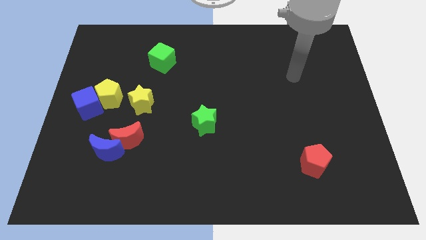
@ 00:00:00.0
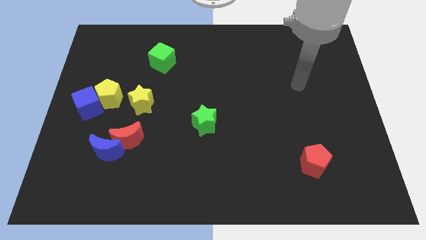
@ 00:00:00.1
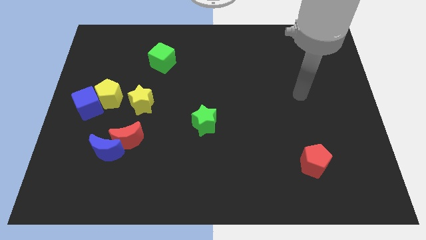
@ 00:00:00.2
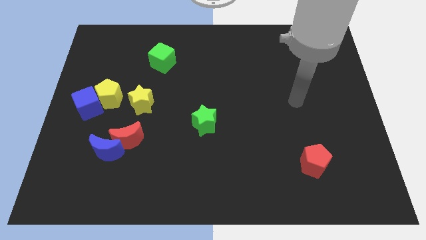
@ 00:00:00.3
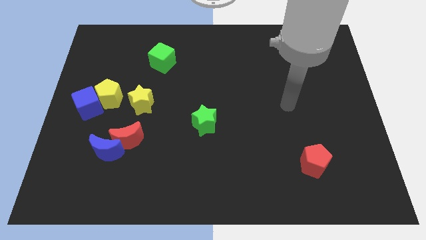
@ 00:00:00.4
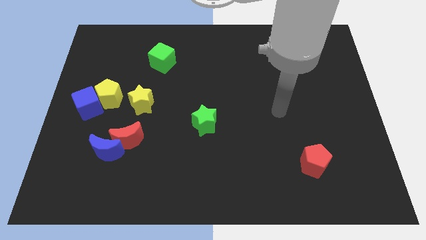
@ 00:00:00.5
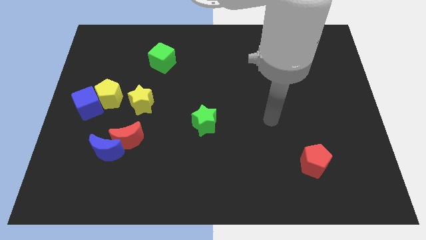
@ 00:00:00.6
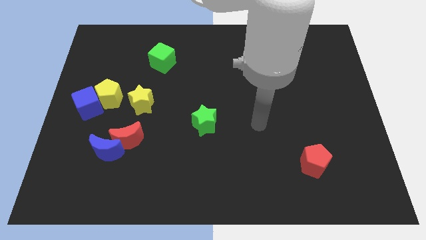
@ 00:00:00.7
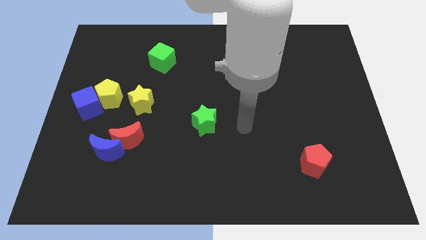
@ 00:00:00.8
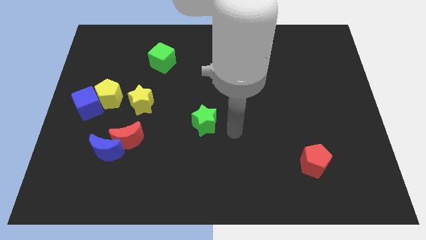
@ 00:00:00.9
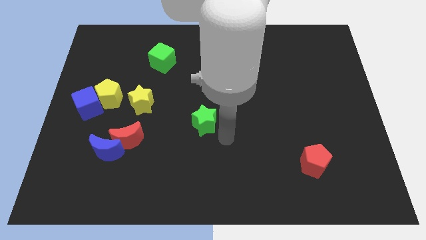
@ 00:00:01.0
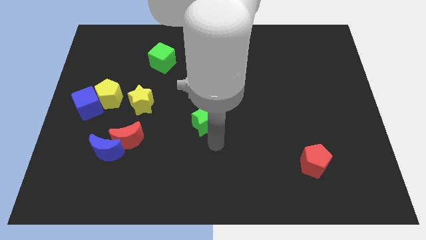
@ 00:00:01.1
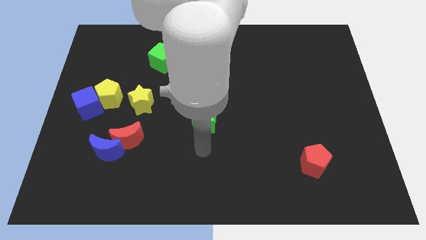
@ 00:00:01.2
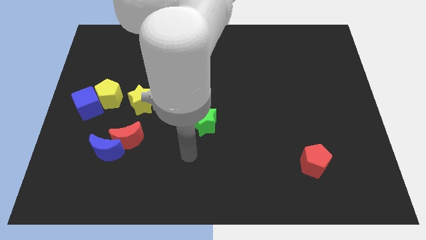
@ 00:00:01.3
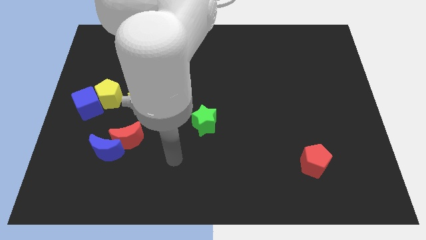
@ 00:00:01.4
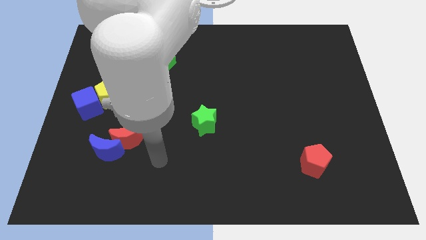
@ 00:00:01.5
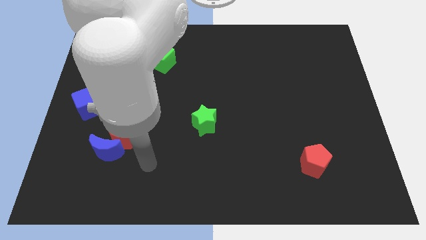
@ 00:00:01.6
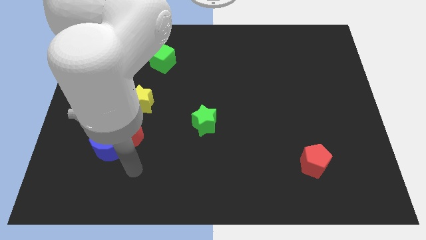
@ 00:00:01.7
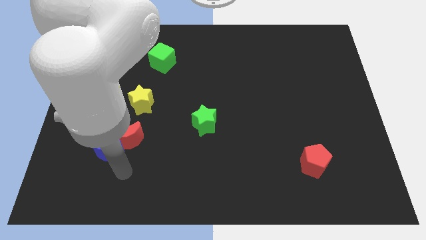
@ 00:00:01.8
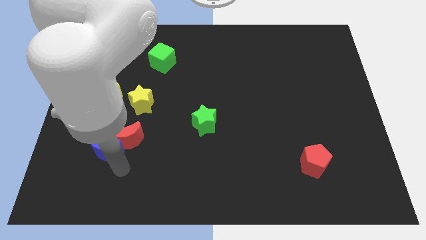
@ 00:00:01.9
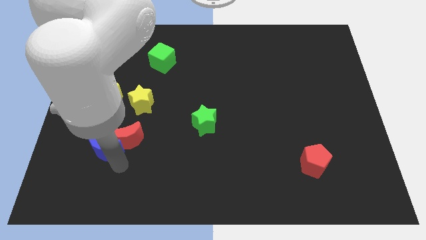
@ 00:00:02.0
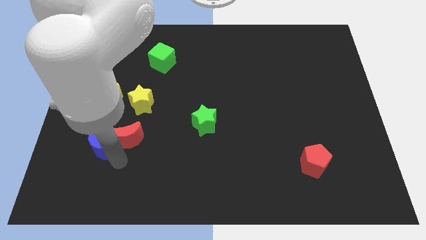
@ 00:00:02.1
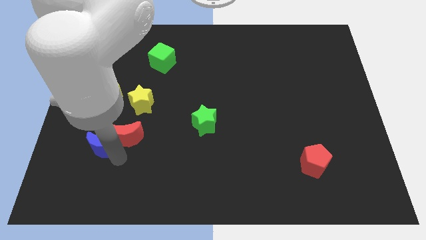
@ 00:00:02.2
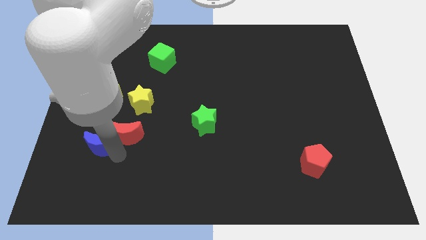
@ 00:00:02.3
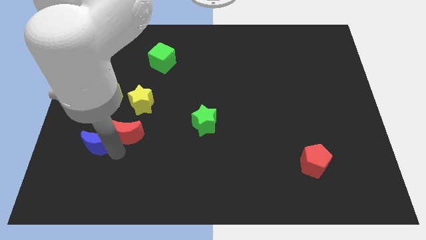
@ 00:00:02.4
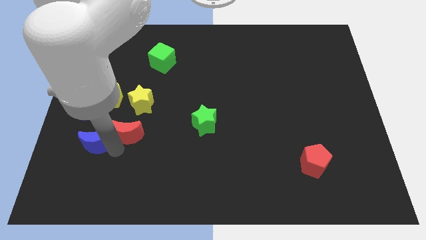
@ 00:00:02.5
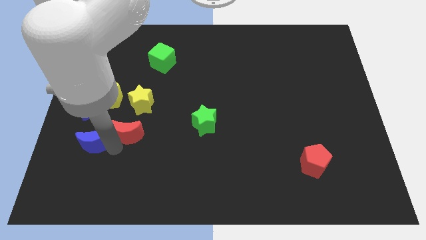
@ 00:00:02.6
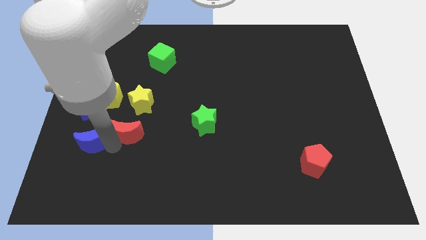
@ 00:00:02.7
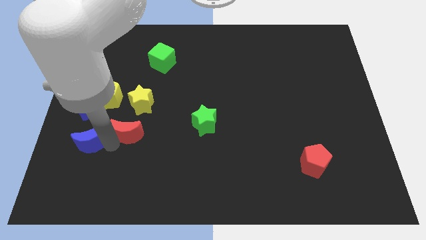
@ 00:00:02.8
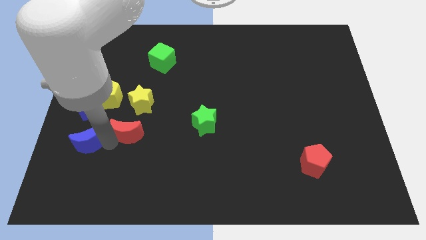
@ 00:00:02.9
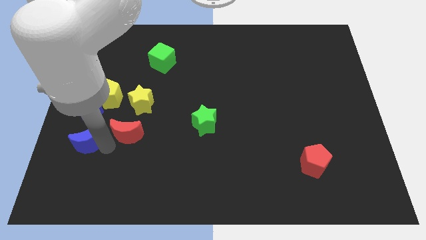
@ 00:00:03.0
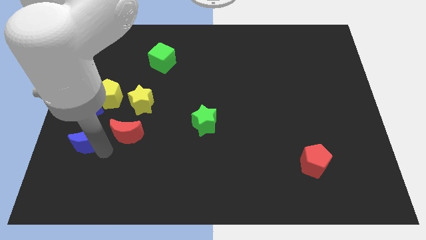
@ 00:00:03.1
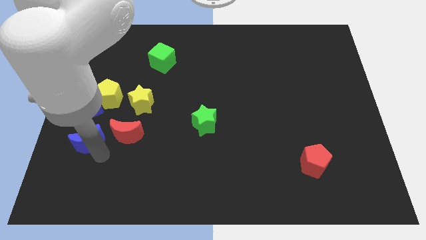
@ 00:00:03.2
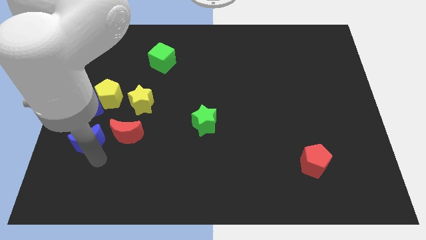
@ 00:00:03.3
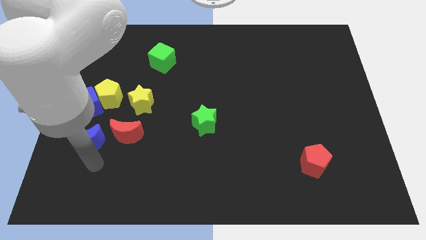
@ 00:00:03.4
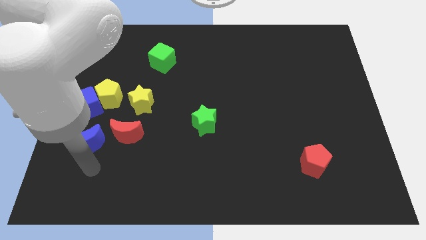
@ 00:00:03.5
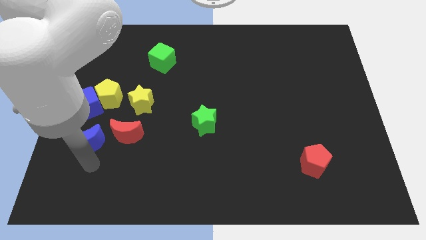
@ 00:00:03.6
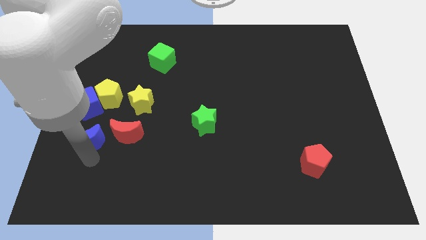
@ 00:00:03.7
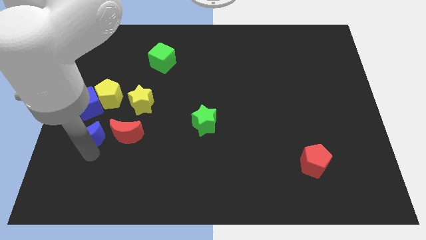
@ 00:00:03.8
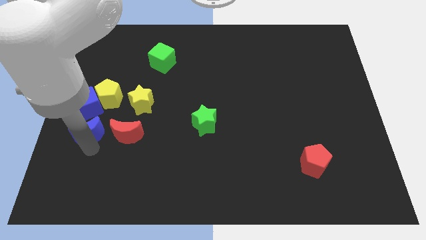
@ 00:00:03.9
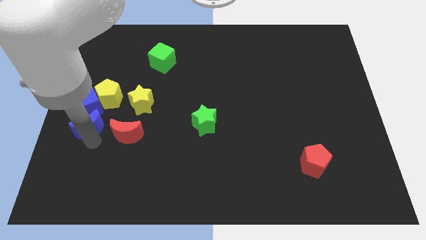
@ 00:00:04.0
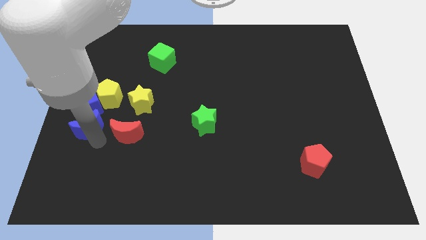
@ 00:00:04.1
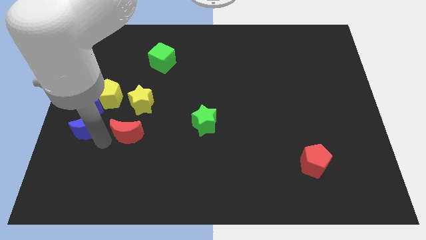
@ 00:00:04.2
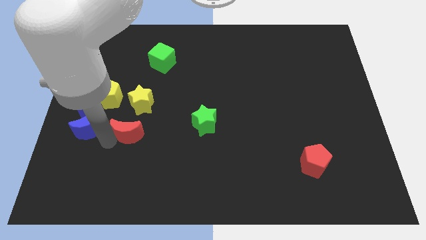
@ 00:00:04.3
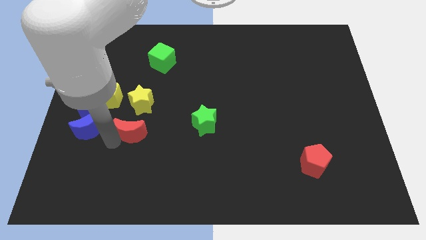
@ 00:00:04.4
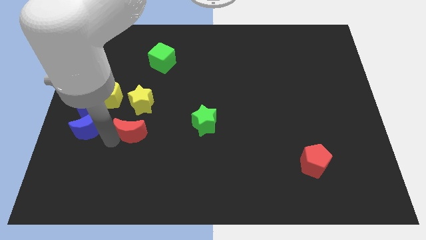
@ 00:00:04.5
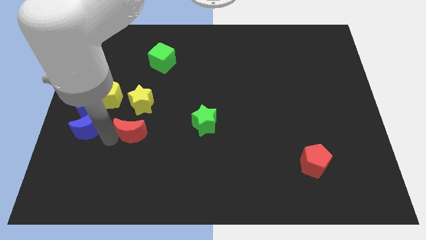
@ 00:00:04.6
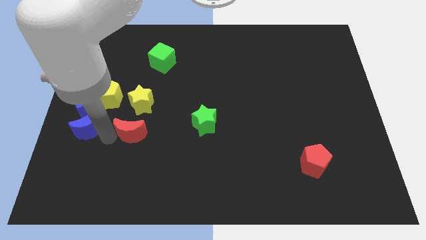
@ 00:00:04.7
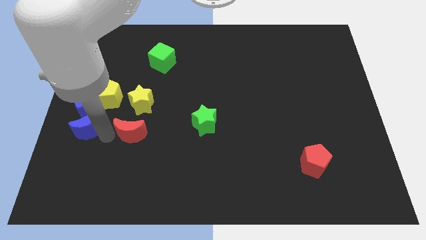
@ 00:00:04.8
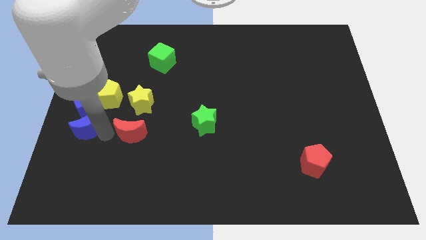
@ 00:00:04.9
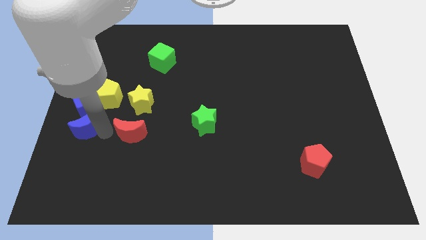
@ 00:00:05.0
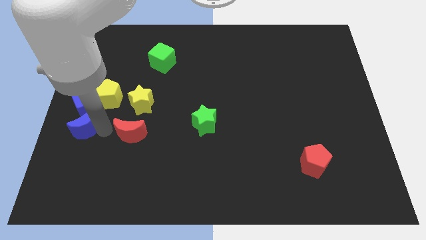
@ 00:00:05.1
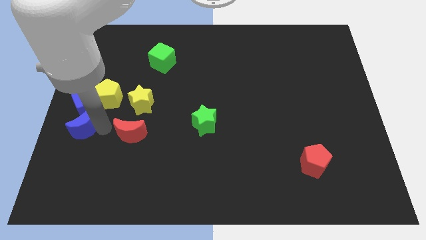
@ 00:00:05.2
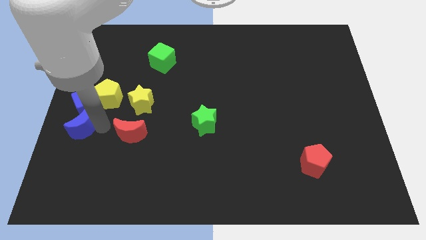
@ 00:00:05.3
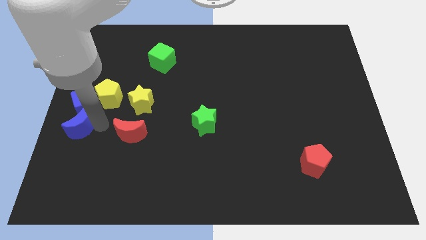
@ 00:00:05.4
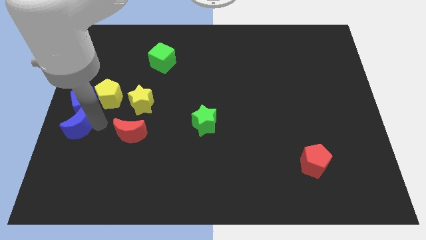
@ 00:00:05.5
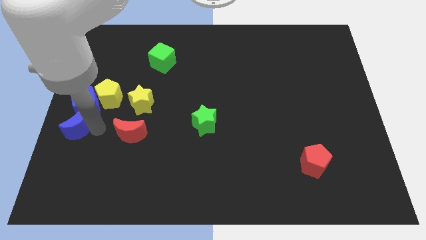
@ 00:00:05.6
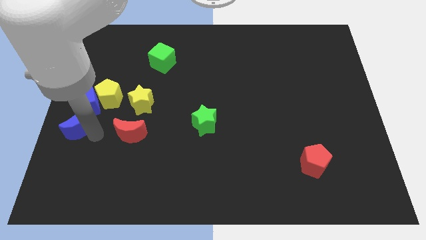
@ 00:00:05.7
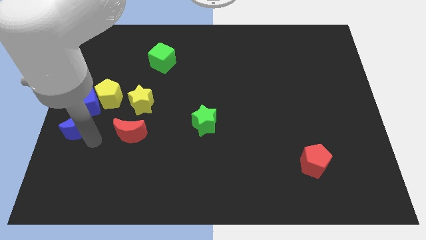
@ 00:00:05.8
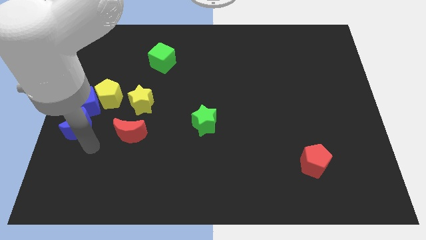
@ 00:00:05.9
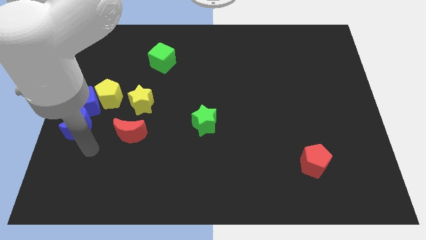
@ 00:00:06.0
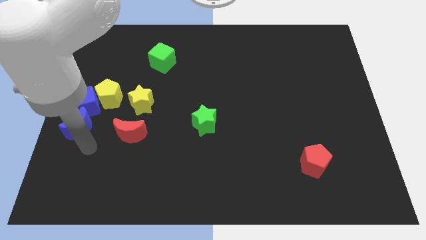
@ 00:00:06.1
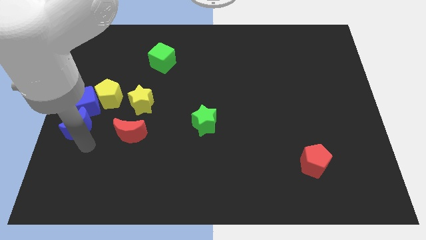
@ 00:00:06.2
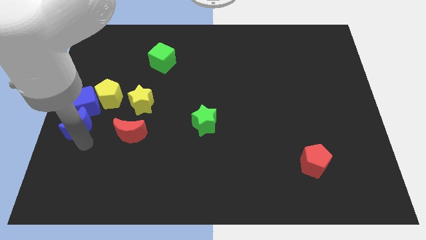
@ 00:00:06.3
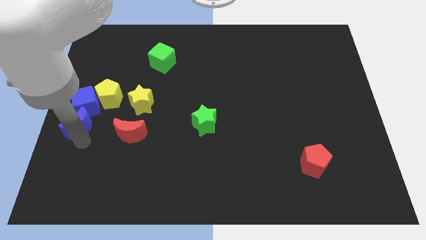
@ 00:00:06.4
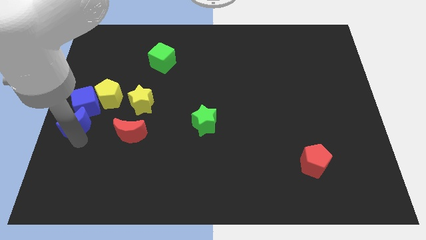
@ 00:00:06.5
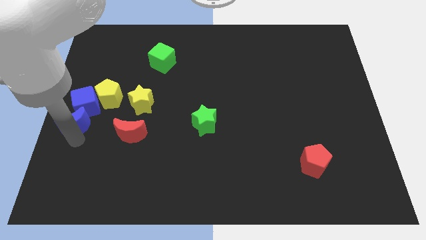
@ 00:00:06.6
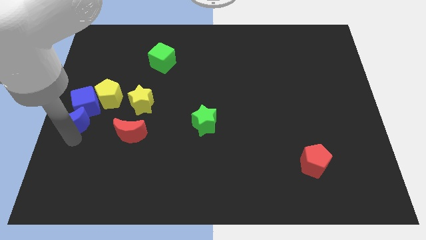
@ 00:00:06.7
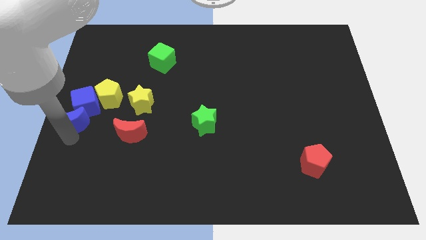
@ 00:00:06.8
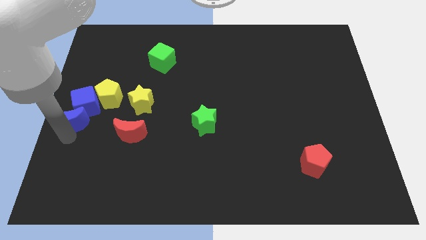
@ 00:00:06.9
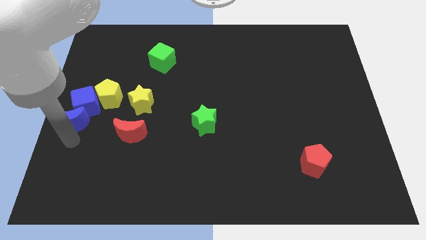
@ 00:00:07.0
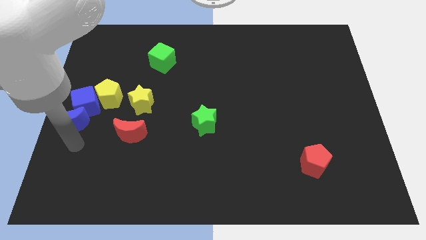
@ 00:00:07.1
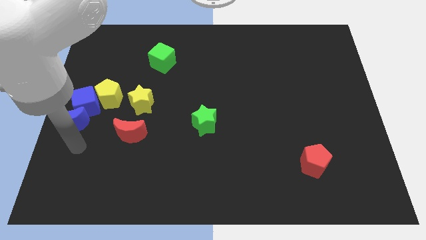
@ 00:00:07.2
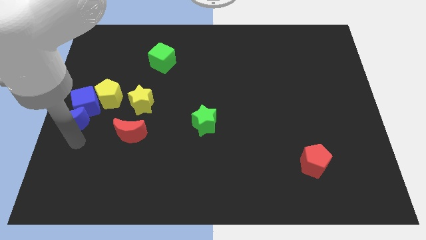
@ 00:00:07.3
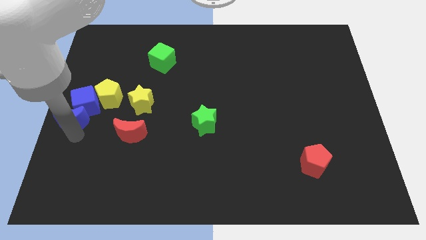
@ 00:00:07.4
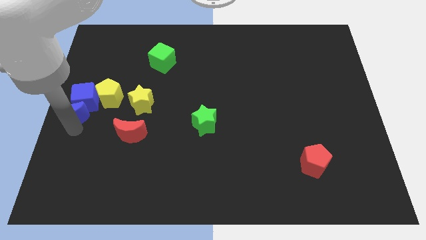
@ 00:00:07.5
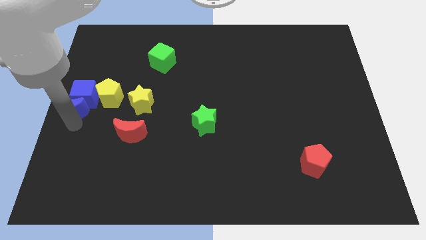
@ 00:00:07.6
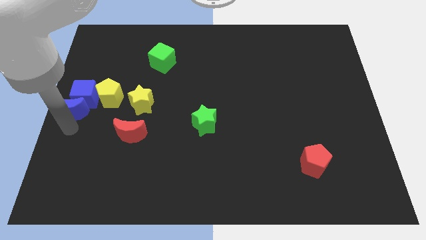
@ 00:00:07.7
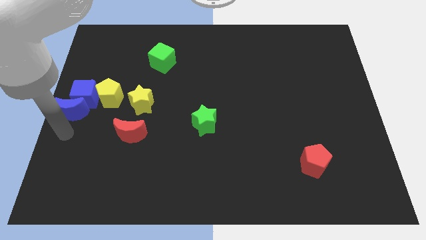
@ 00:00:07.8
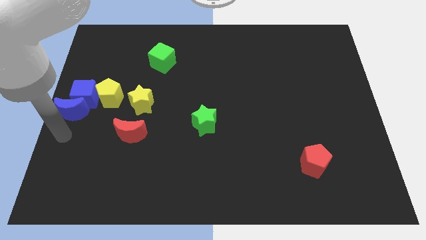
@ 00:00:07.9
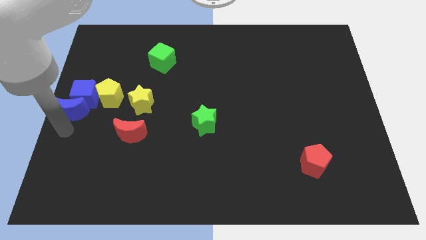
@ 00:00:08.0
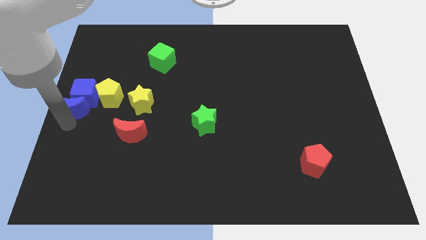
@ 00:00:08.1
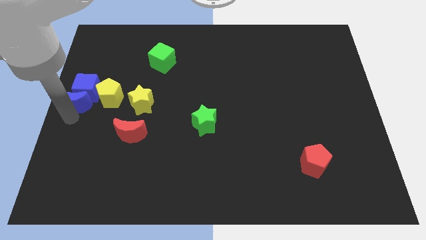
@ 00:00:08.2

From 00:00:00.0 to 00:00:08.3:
slide the blue moon a bit up
